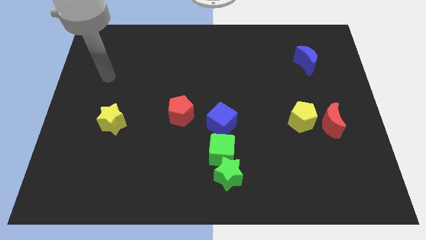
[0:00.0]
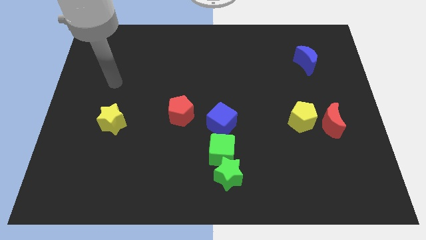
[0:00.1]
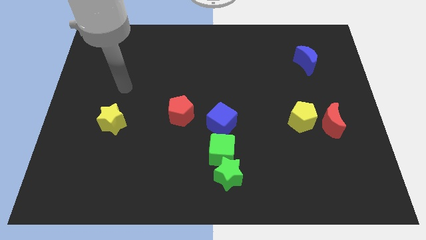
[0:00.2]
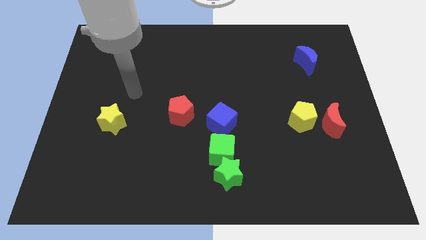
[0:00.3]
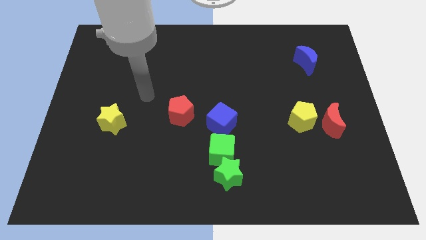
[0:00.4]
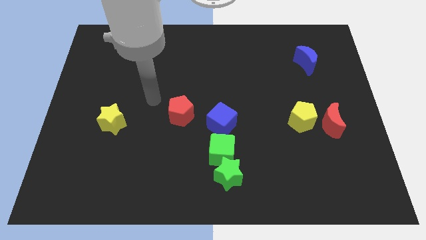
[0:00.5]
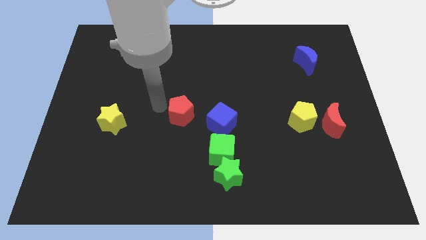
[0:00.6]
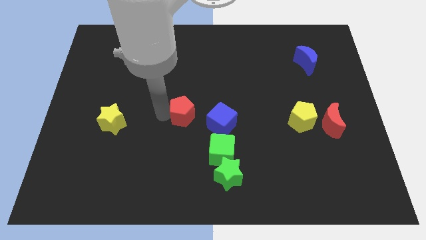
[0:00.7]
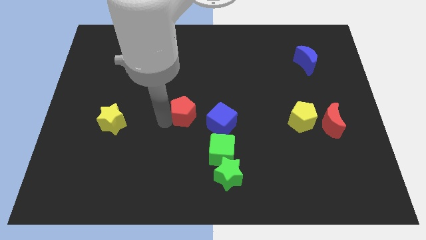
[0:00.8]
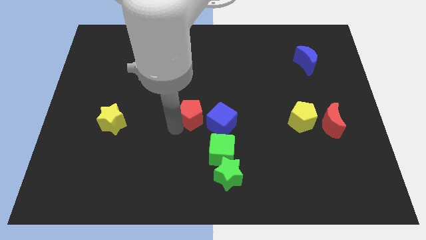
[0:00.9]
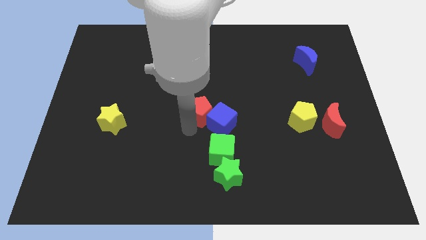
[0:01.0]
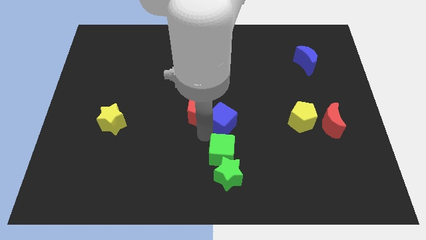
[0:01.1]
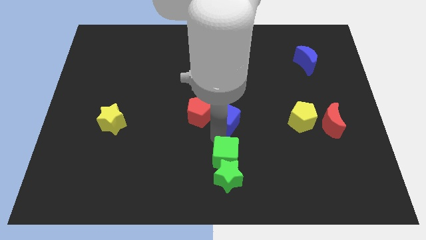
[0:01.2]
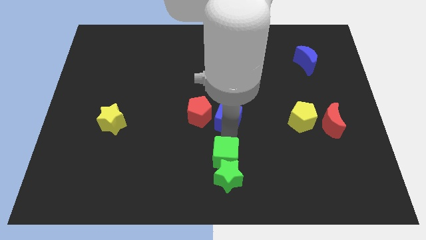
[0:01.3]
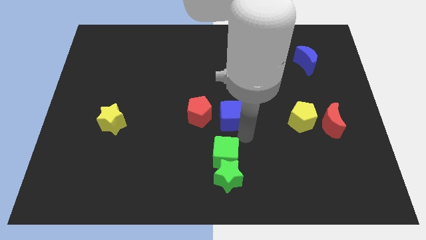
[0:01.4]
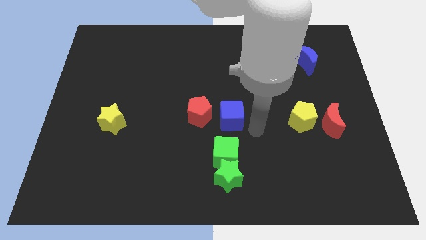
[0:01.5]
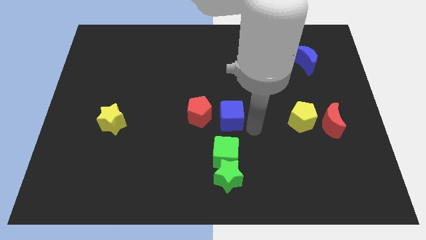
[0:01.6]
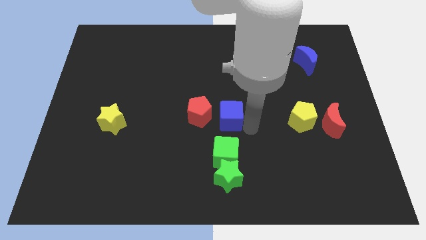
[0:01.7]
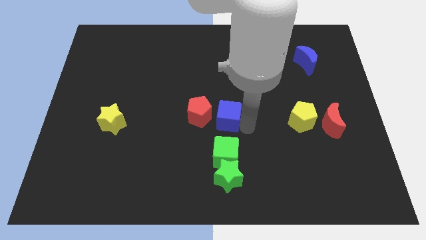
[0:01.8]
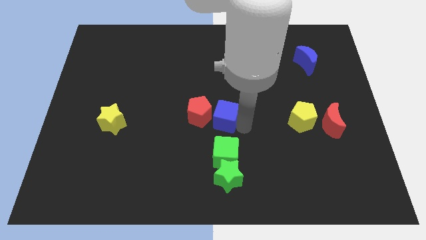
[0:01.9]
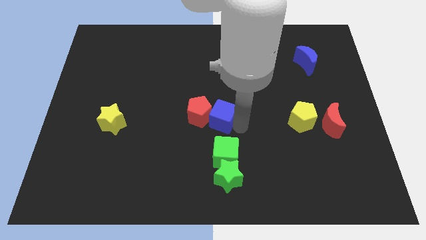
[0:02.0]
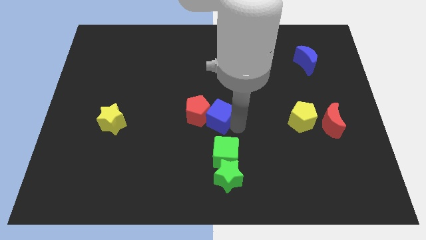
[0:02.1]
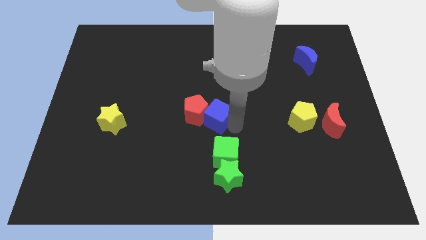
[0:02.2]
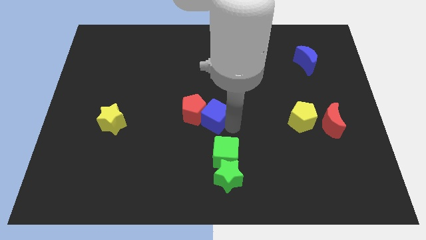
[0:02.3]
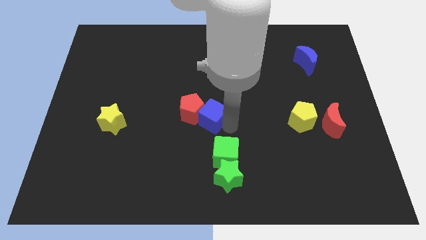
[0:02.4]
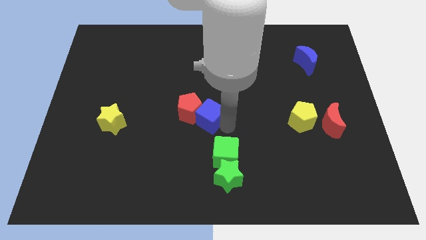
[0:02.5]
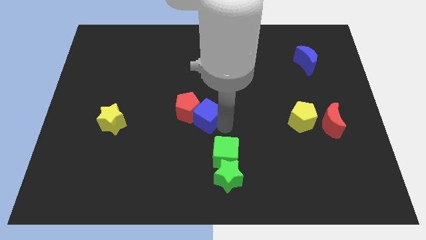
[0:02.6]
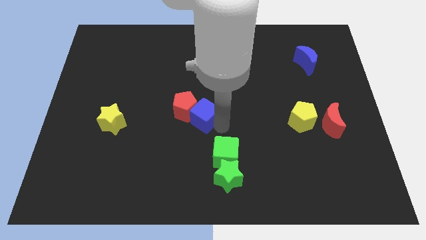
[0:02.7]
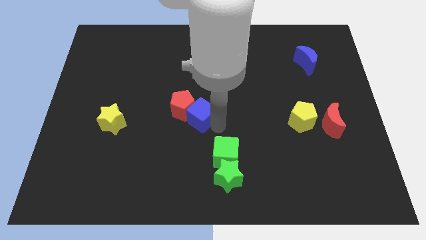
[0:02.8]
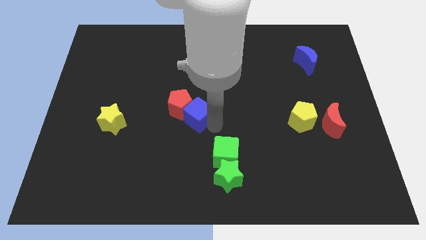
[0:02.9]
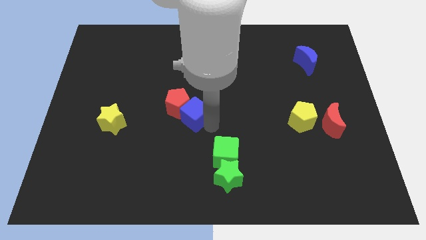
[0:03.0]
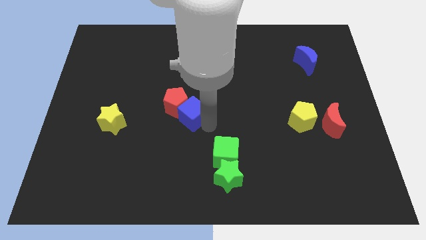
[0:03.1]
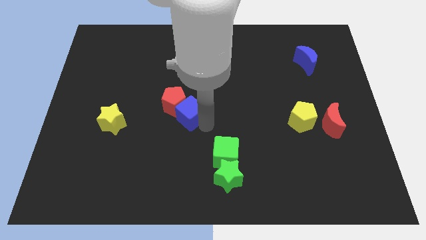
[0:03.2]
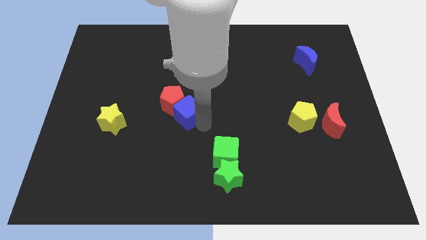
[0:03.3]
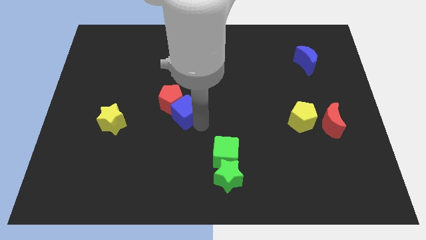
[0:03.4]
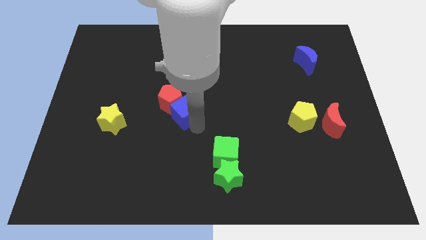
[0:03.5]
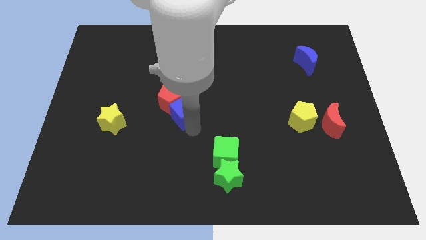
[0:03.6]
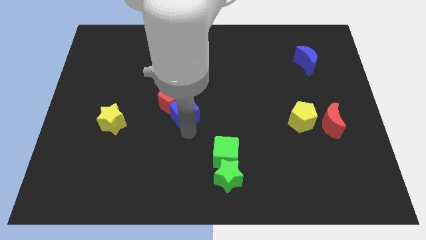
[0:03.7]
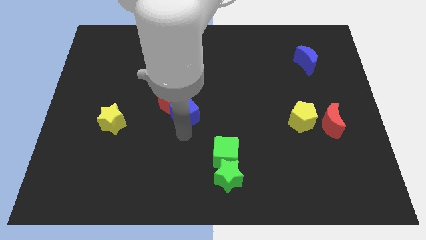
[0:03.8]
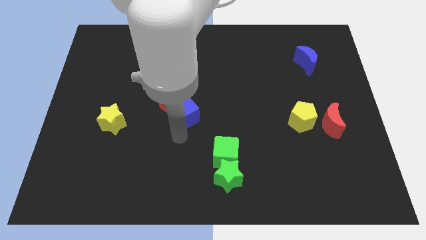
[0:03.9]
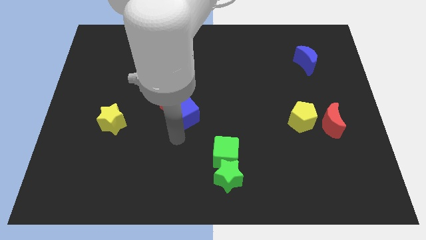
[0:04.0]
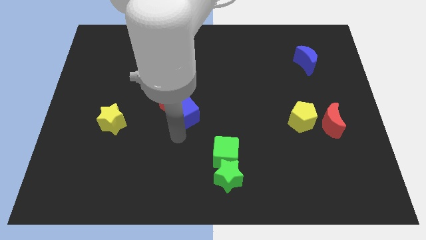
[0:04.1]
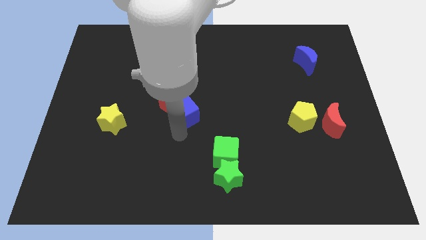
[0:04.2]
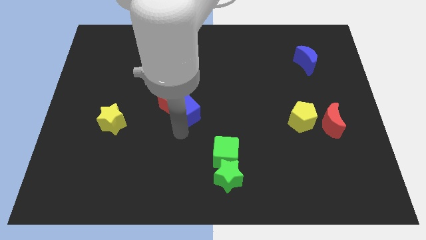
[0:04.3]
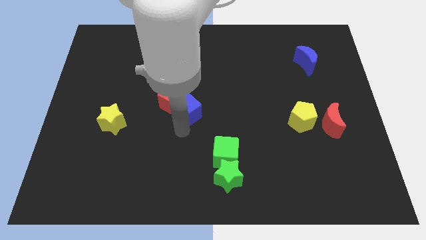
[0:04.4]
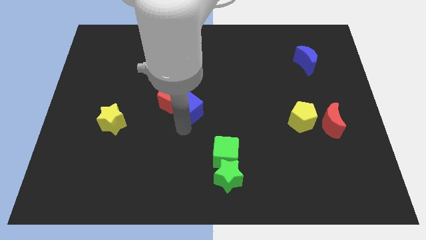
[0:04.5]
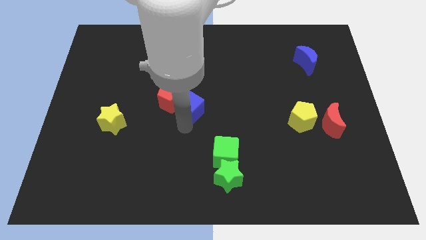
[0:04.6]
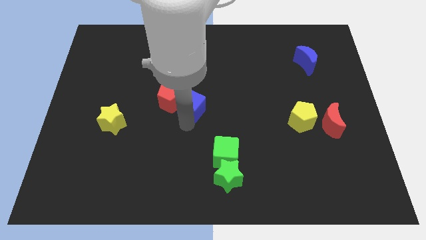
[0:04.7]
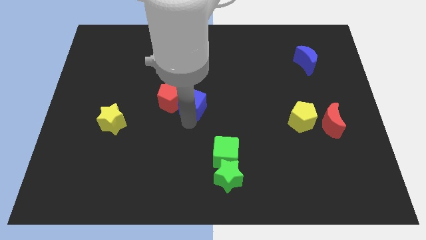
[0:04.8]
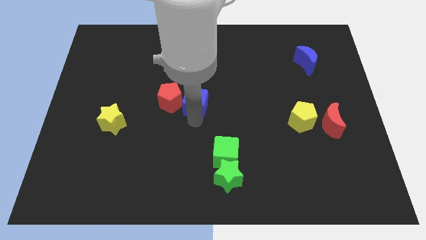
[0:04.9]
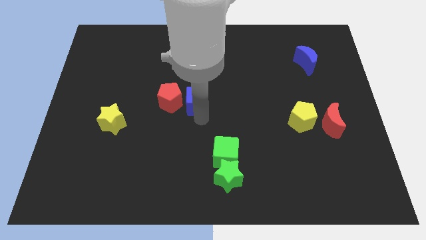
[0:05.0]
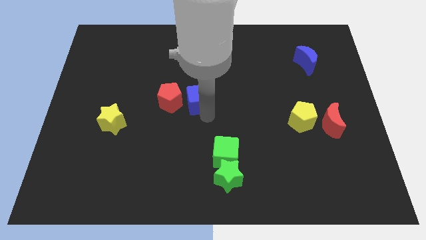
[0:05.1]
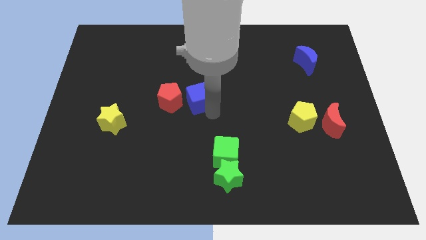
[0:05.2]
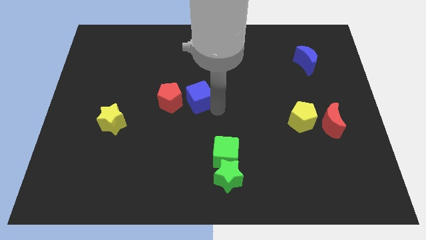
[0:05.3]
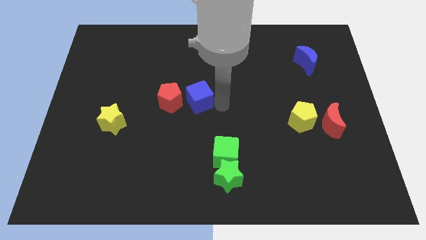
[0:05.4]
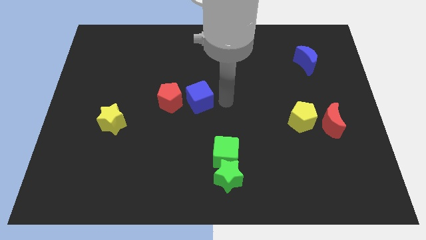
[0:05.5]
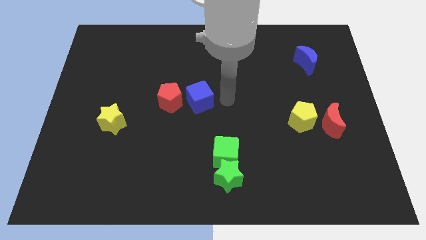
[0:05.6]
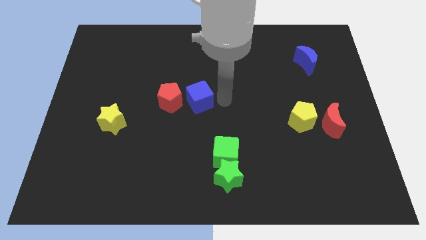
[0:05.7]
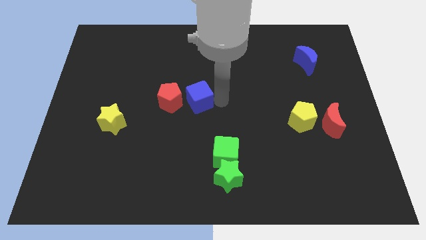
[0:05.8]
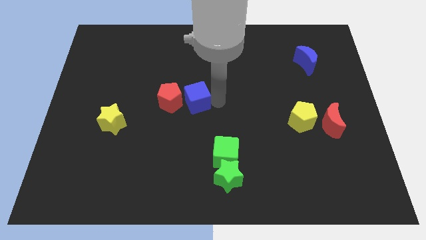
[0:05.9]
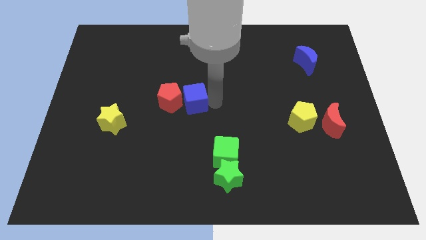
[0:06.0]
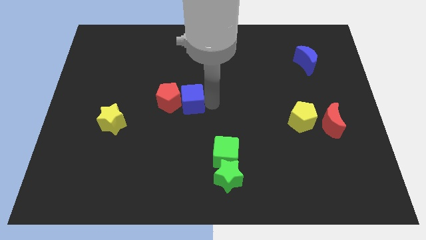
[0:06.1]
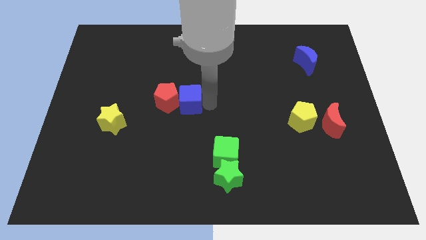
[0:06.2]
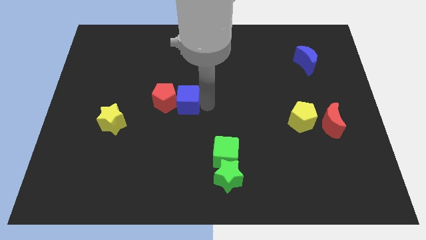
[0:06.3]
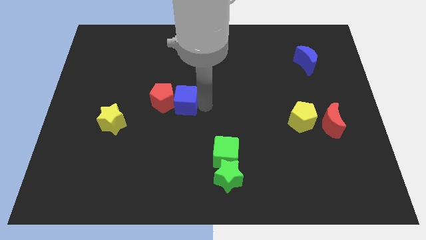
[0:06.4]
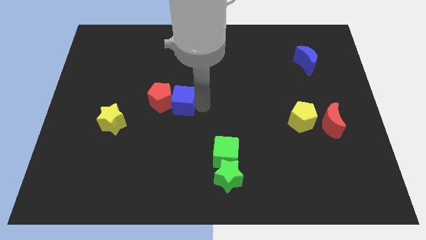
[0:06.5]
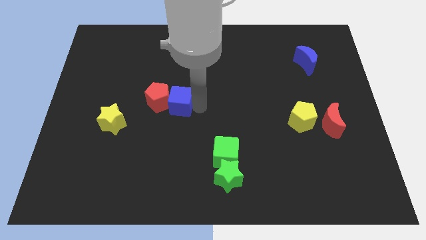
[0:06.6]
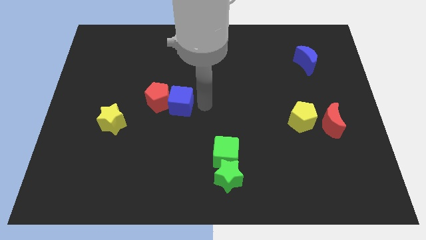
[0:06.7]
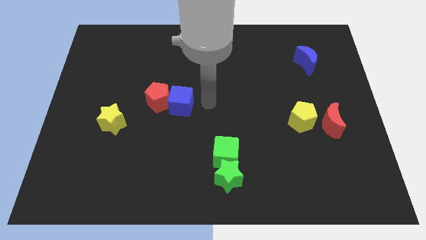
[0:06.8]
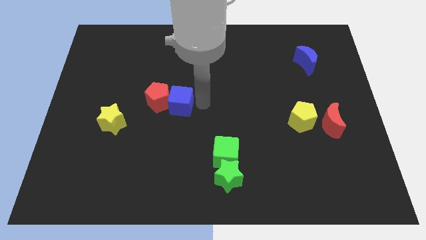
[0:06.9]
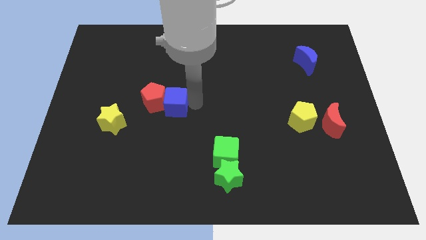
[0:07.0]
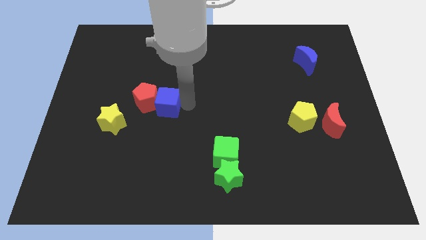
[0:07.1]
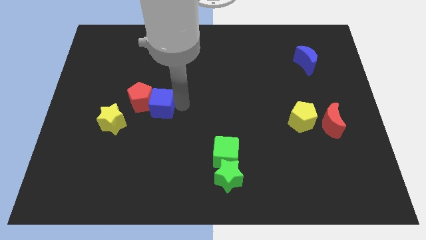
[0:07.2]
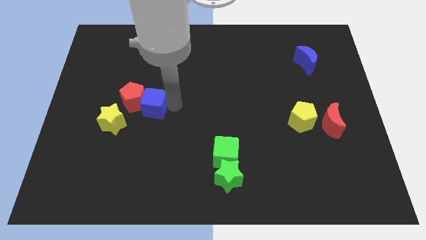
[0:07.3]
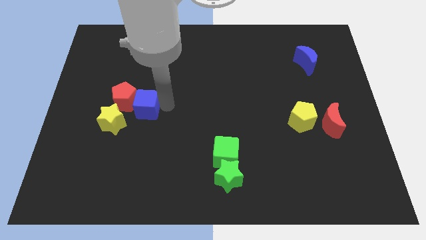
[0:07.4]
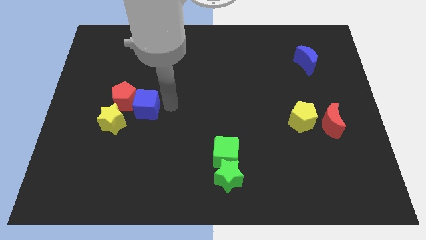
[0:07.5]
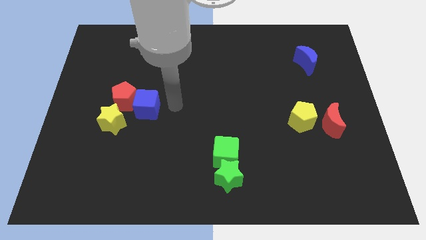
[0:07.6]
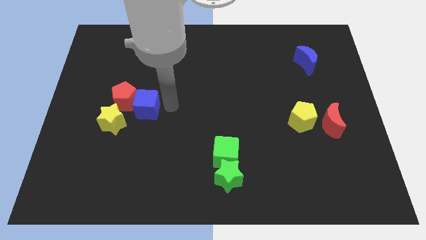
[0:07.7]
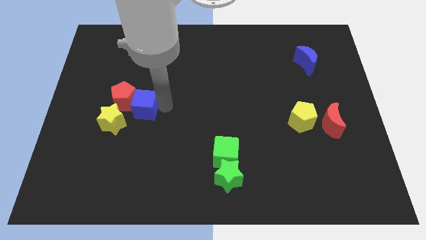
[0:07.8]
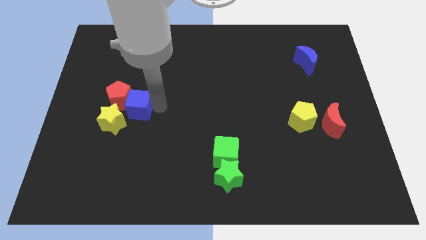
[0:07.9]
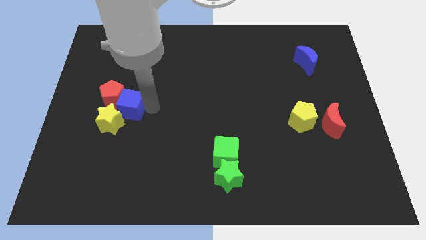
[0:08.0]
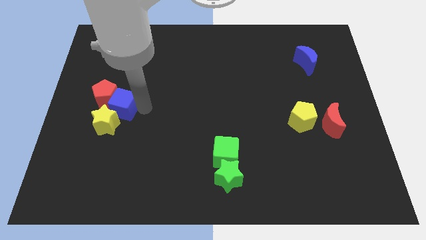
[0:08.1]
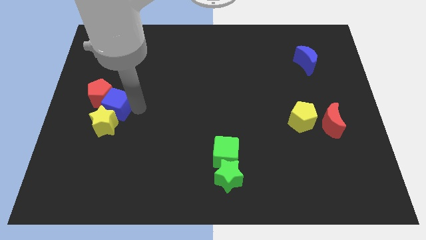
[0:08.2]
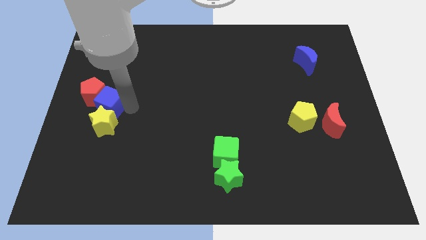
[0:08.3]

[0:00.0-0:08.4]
move the blue cube diagonally up and to the left of the yellow star
